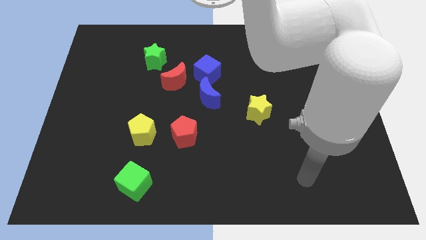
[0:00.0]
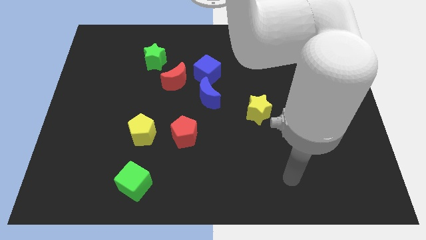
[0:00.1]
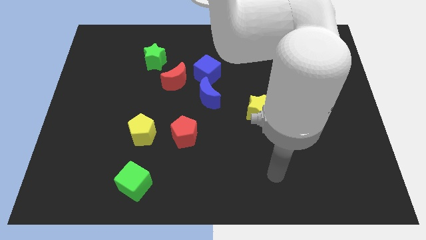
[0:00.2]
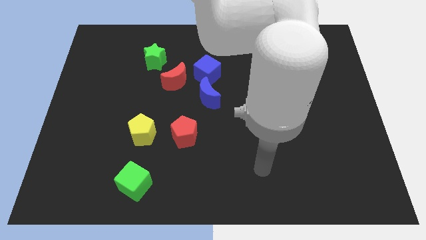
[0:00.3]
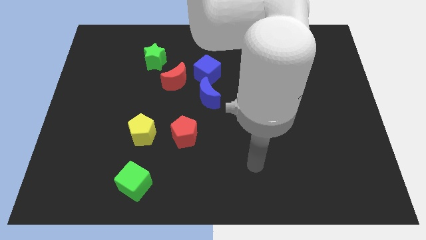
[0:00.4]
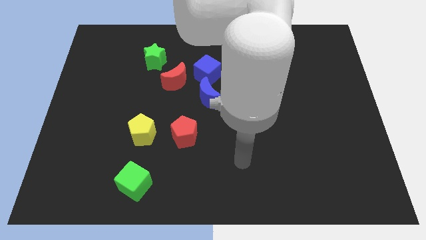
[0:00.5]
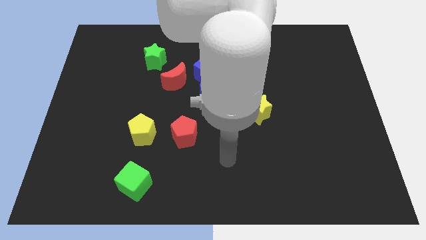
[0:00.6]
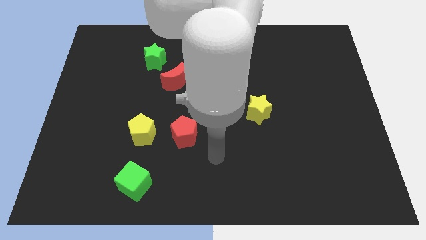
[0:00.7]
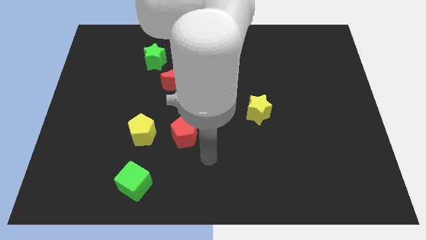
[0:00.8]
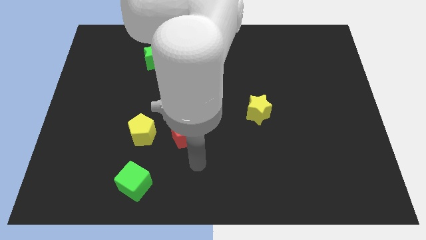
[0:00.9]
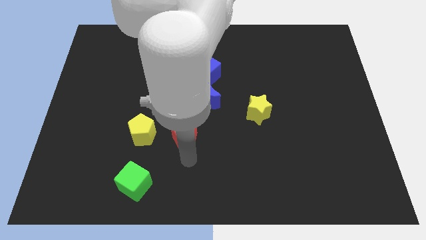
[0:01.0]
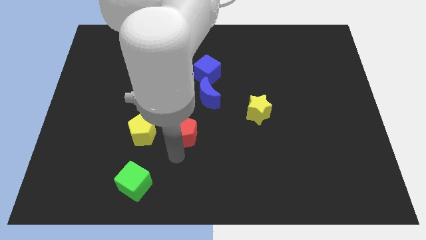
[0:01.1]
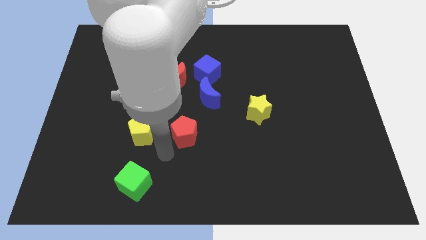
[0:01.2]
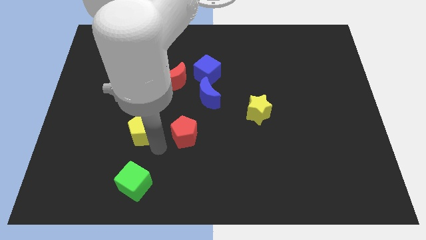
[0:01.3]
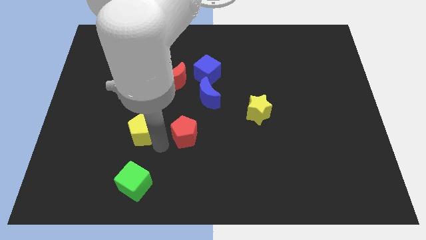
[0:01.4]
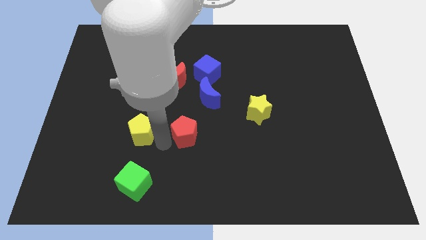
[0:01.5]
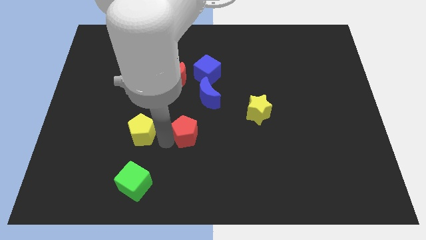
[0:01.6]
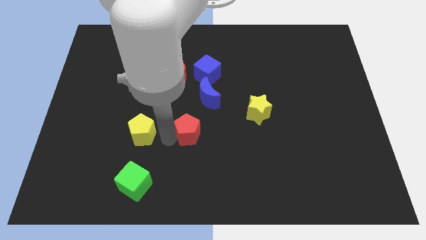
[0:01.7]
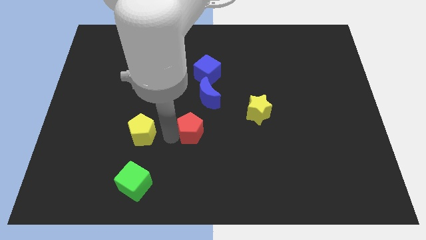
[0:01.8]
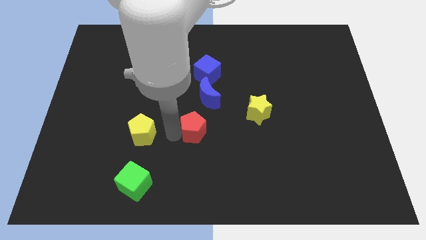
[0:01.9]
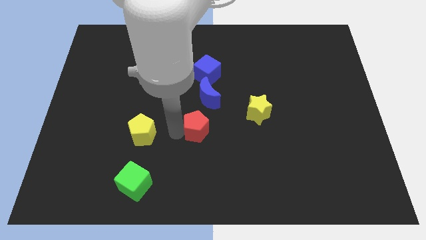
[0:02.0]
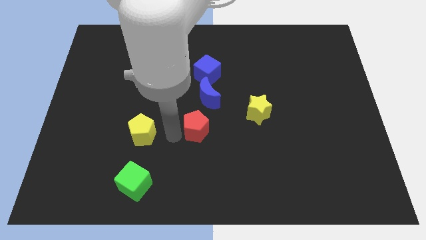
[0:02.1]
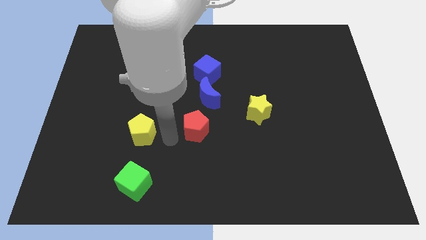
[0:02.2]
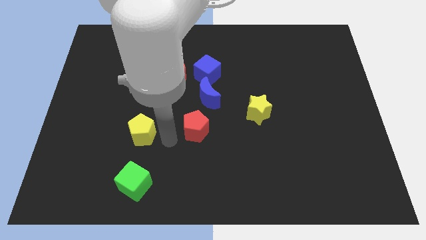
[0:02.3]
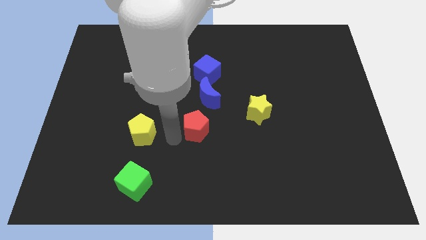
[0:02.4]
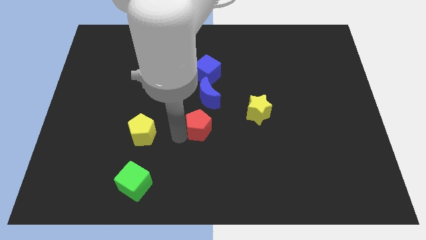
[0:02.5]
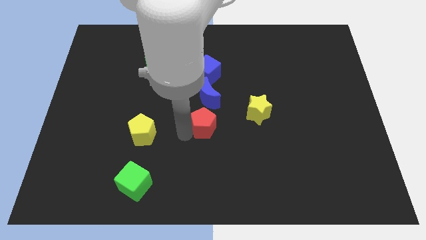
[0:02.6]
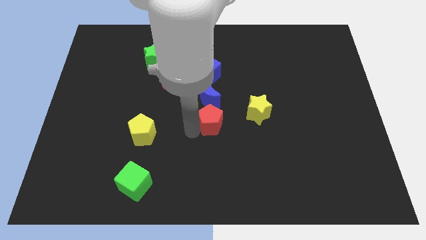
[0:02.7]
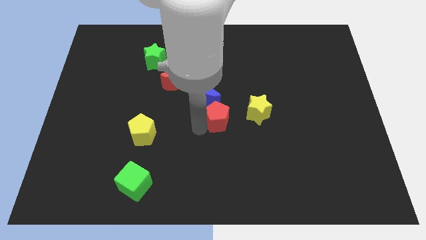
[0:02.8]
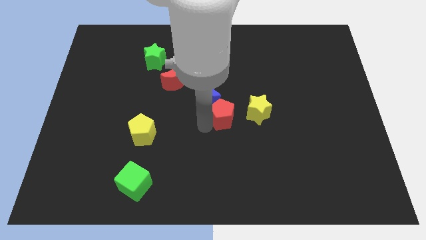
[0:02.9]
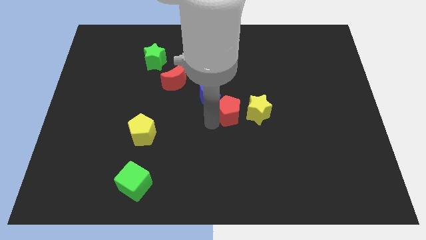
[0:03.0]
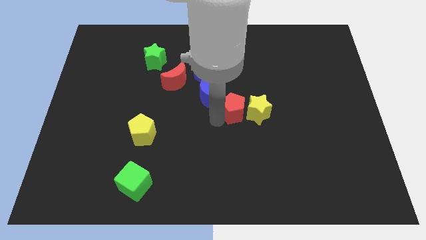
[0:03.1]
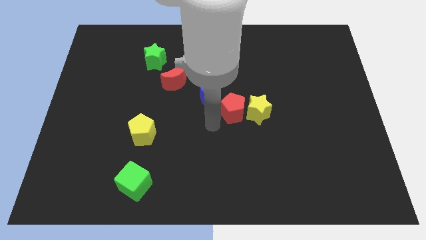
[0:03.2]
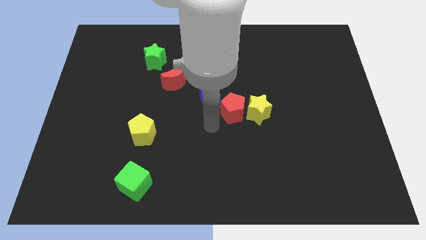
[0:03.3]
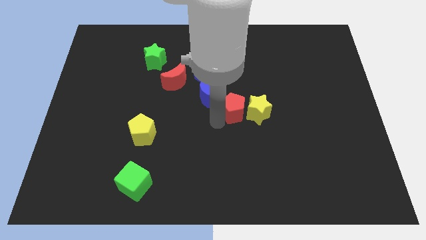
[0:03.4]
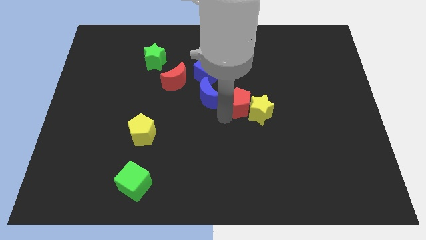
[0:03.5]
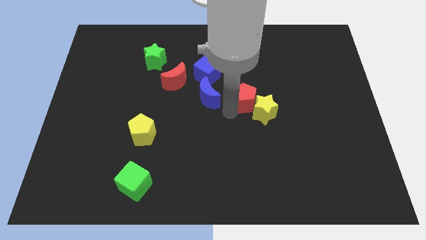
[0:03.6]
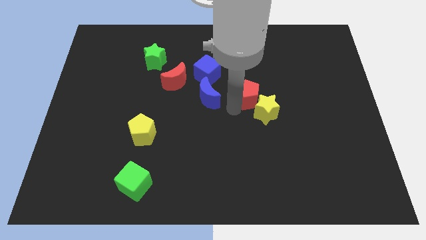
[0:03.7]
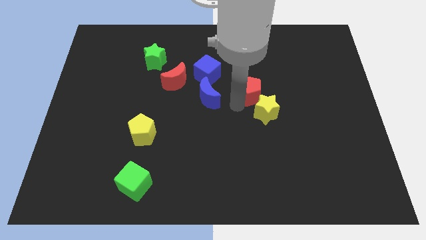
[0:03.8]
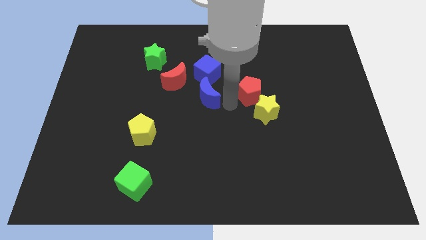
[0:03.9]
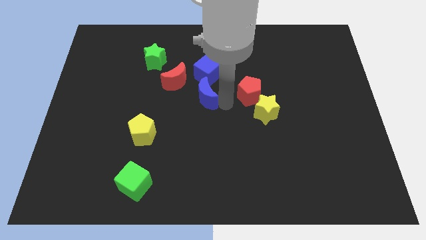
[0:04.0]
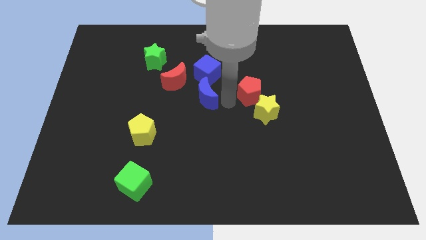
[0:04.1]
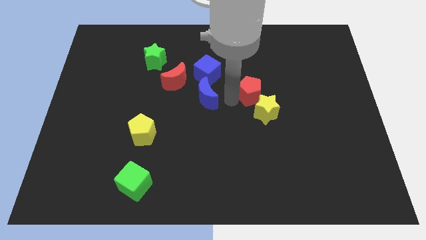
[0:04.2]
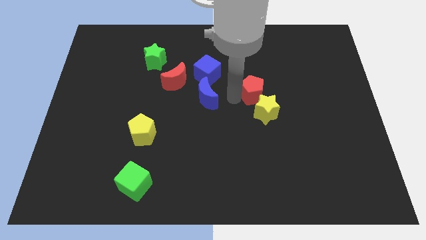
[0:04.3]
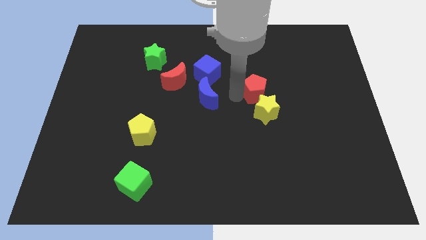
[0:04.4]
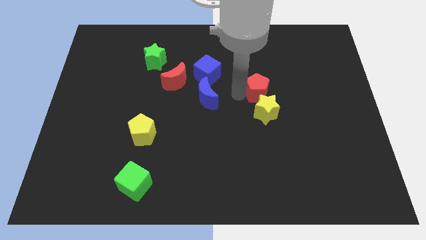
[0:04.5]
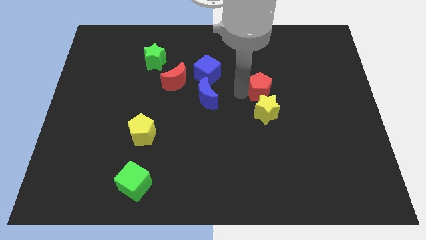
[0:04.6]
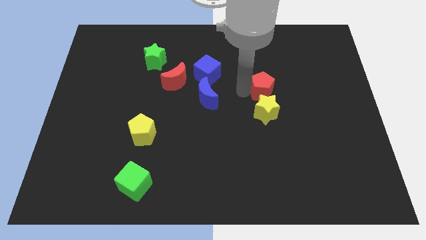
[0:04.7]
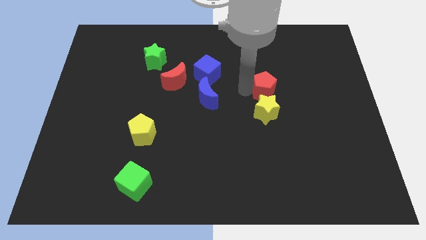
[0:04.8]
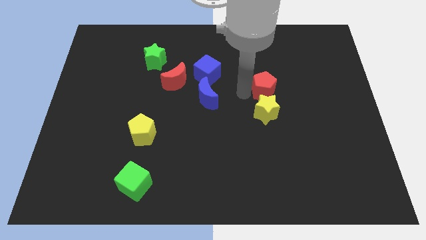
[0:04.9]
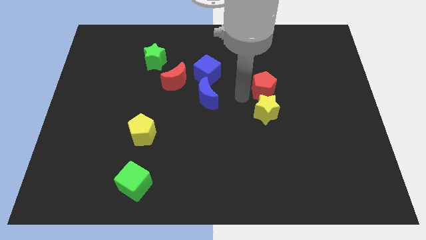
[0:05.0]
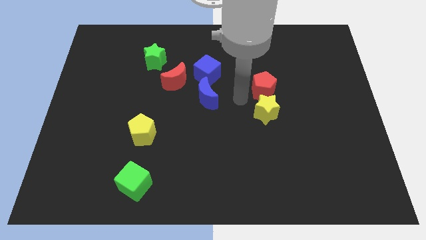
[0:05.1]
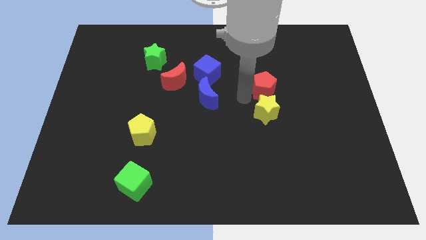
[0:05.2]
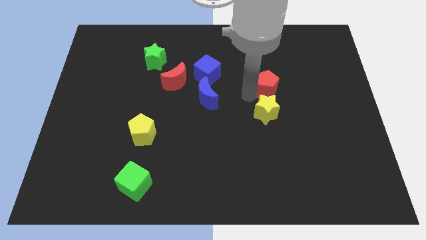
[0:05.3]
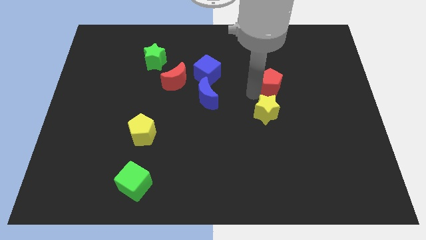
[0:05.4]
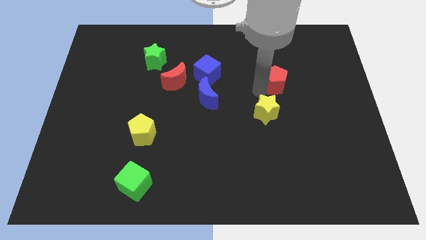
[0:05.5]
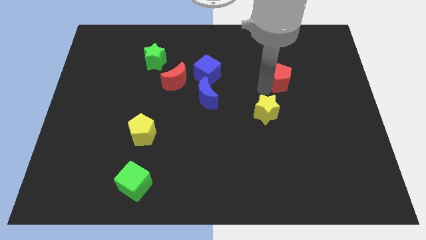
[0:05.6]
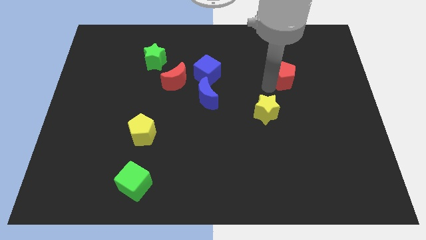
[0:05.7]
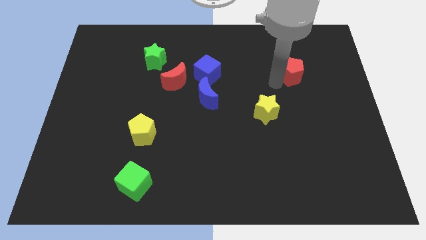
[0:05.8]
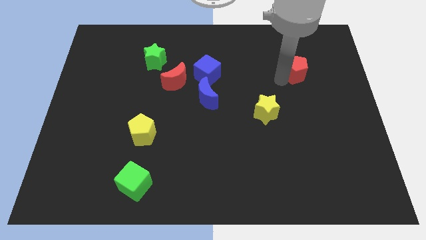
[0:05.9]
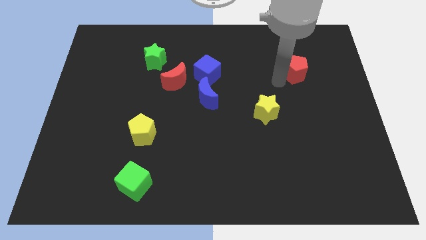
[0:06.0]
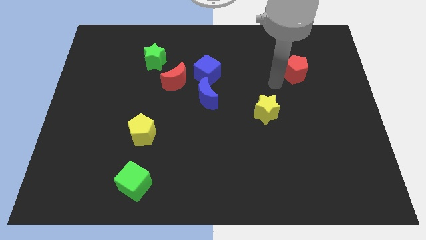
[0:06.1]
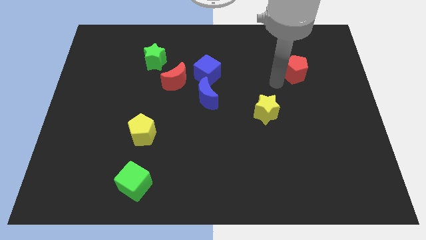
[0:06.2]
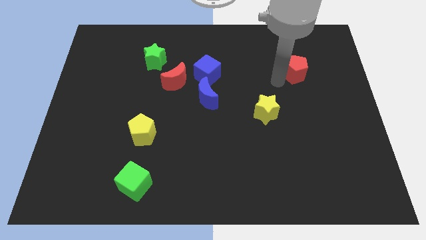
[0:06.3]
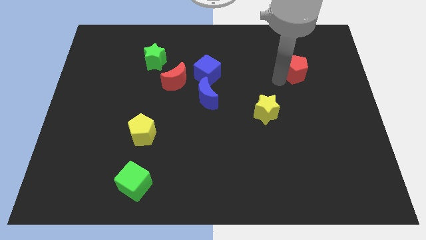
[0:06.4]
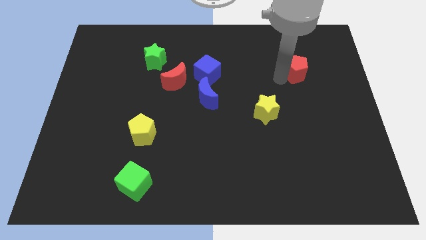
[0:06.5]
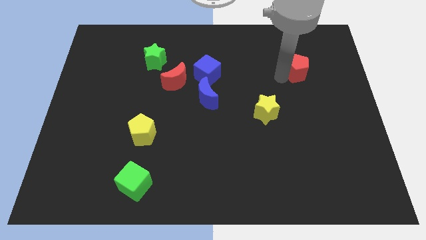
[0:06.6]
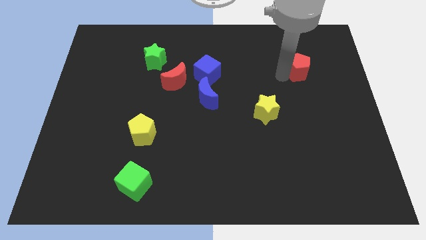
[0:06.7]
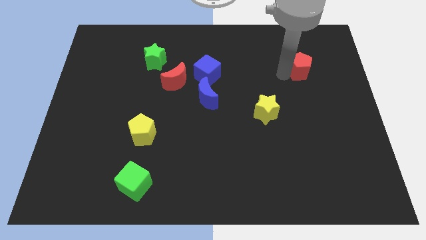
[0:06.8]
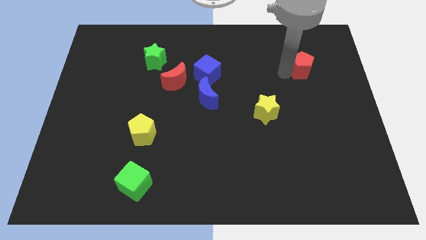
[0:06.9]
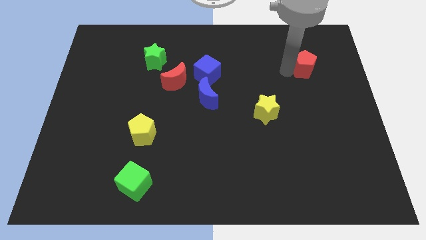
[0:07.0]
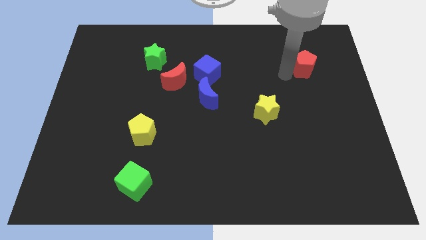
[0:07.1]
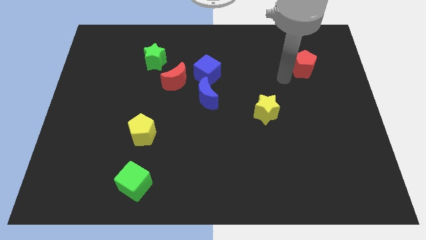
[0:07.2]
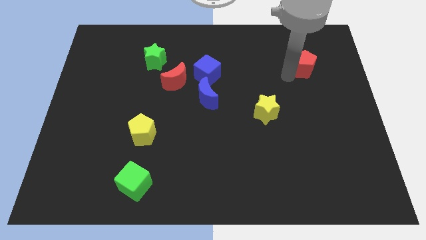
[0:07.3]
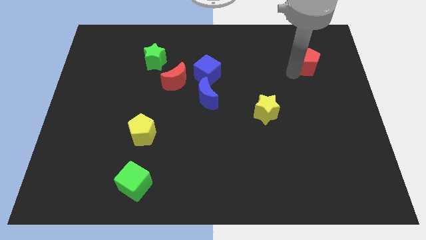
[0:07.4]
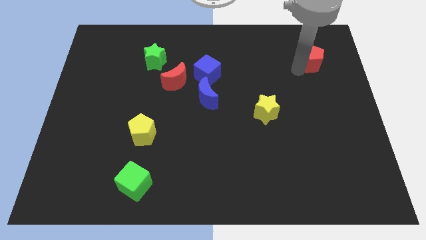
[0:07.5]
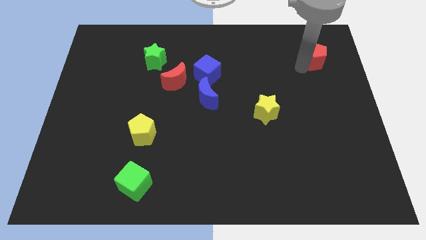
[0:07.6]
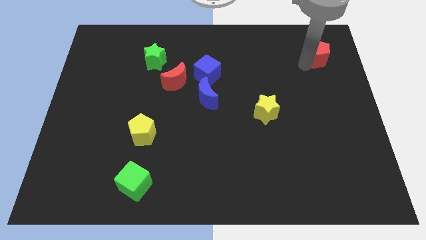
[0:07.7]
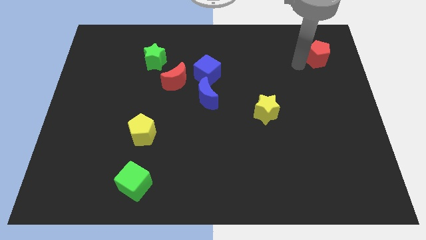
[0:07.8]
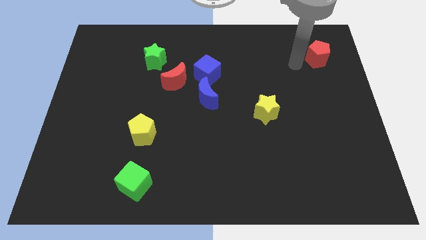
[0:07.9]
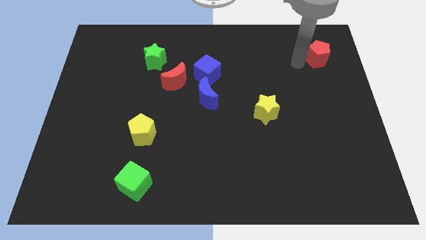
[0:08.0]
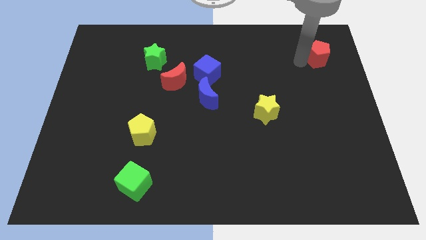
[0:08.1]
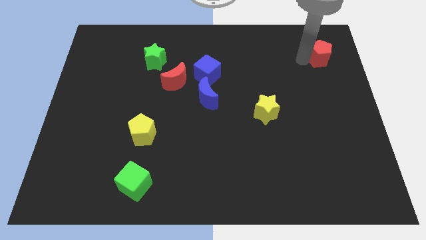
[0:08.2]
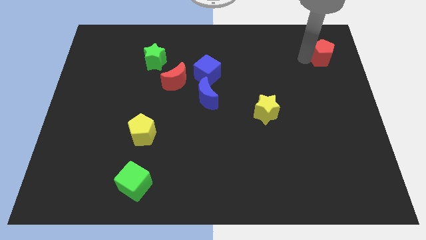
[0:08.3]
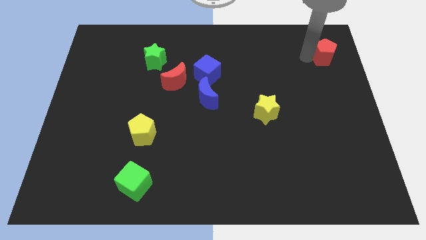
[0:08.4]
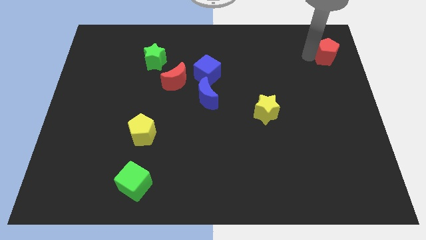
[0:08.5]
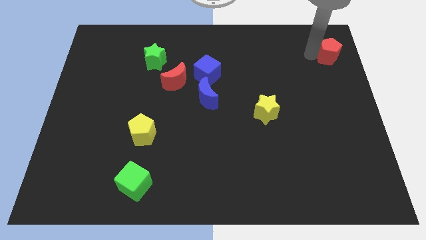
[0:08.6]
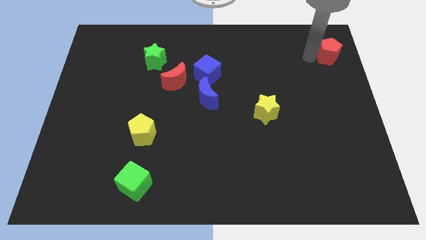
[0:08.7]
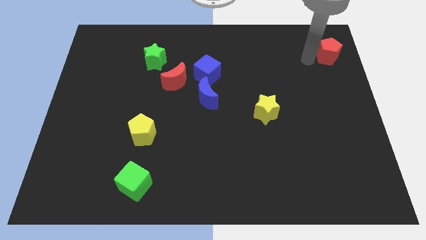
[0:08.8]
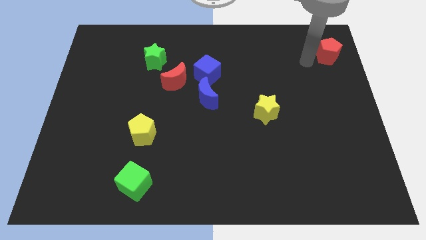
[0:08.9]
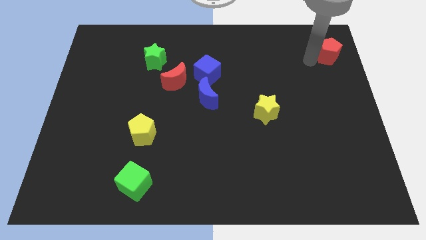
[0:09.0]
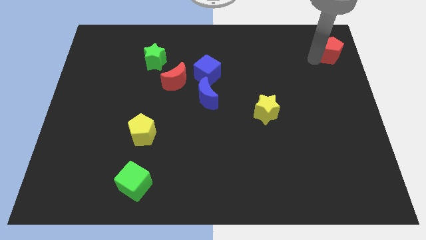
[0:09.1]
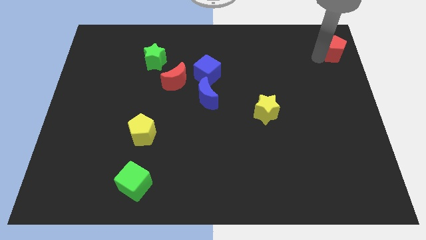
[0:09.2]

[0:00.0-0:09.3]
push the red pentagon to the top right corner
